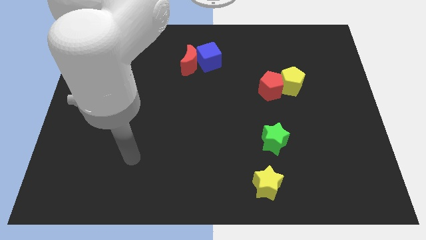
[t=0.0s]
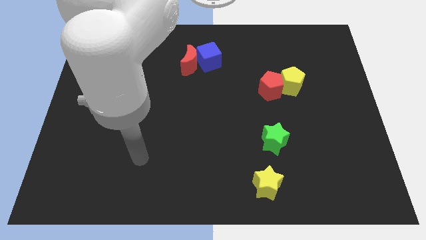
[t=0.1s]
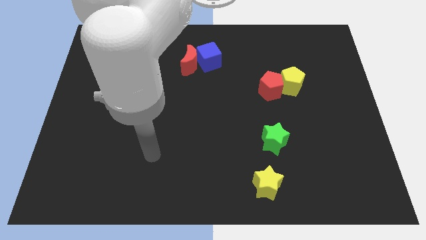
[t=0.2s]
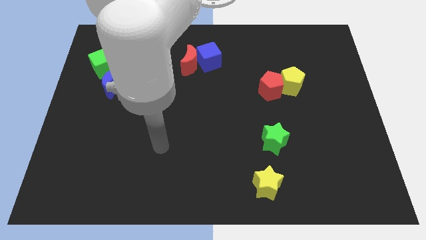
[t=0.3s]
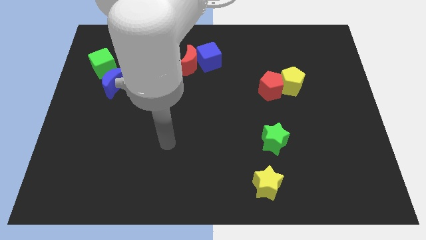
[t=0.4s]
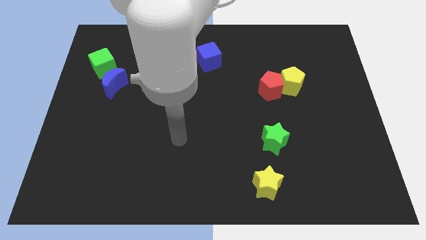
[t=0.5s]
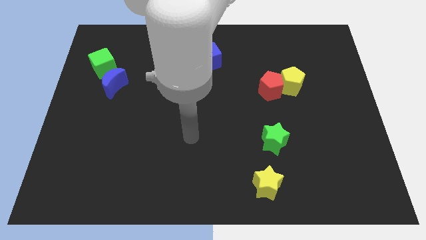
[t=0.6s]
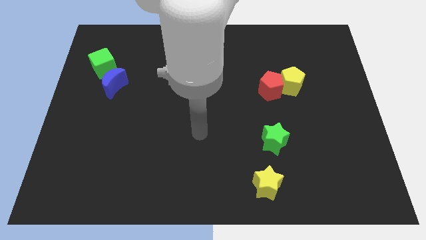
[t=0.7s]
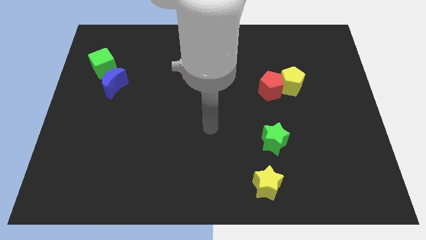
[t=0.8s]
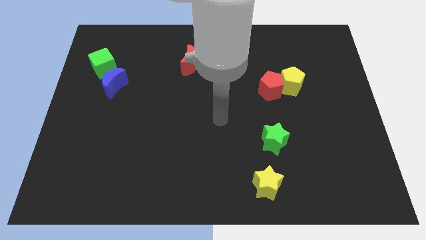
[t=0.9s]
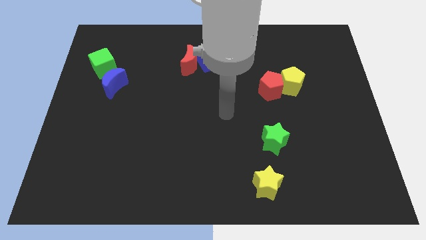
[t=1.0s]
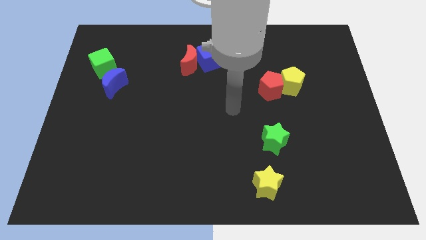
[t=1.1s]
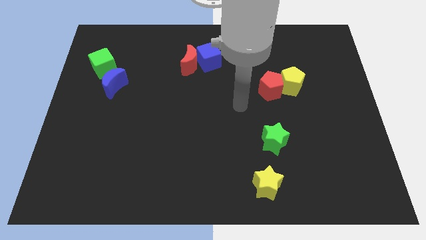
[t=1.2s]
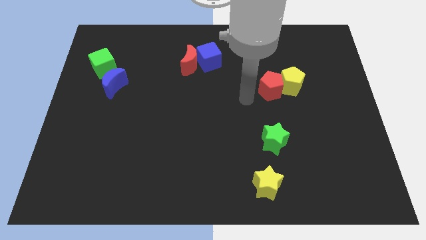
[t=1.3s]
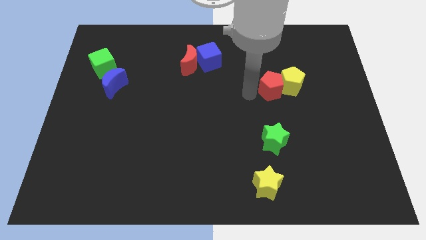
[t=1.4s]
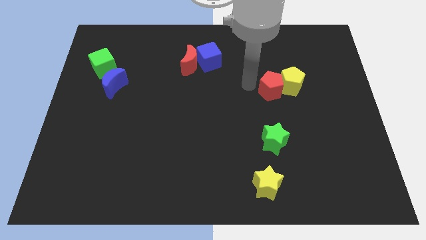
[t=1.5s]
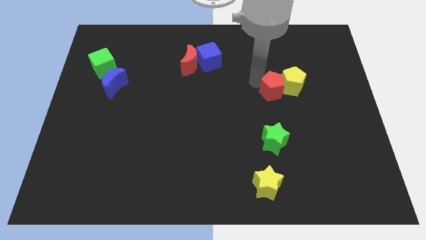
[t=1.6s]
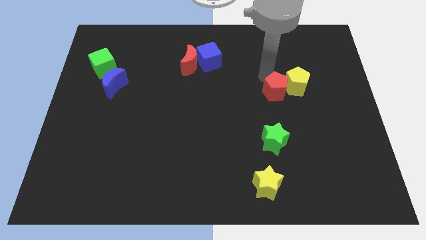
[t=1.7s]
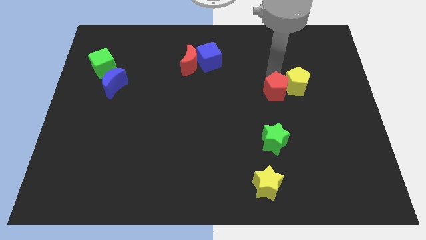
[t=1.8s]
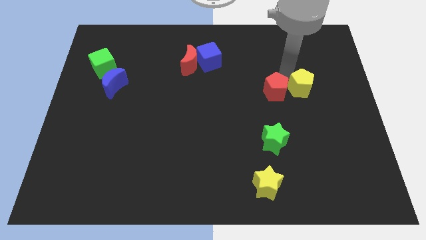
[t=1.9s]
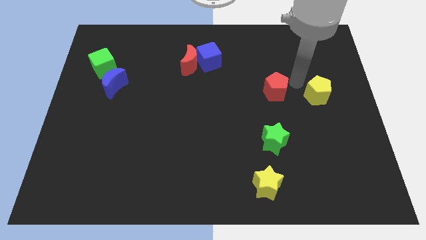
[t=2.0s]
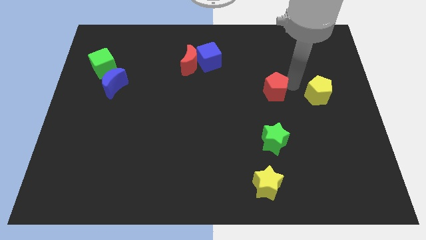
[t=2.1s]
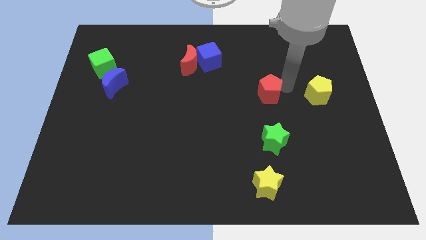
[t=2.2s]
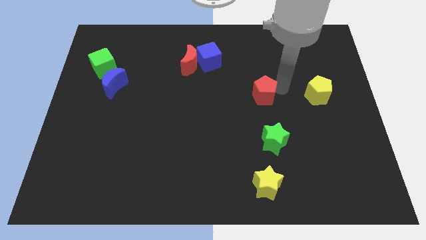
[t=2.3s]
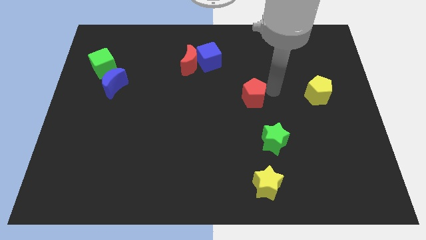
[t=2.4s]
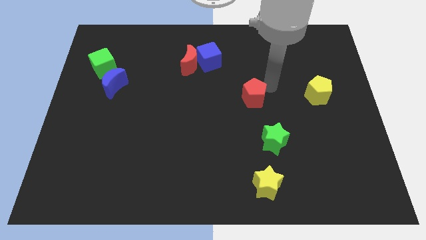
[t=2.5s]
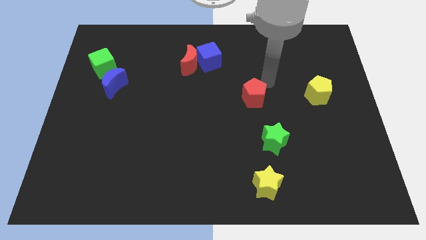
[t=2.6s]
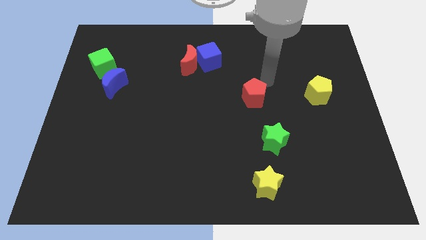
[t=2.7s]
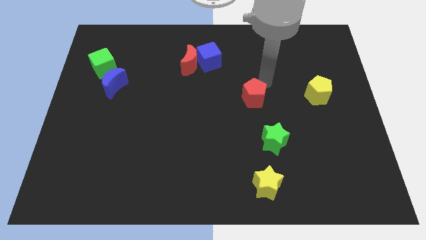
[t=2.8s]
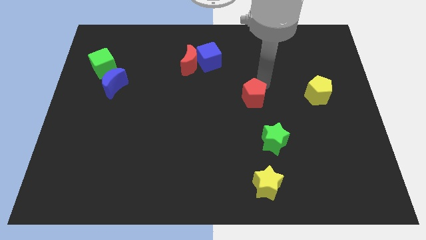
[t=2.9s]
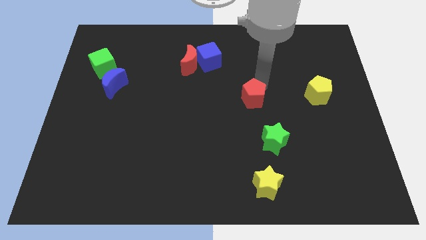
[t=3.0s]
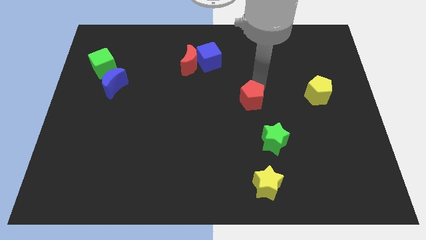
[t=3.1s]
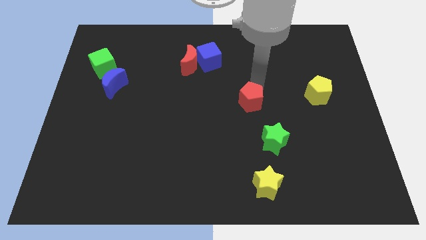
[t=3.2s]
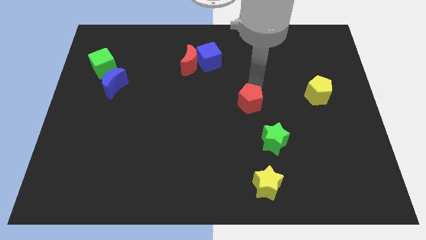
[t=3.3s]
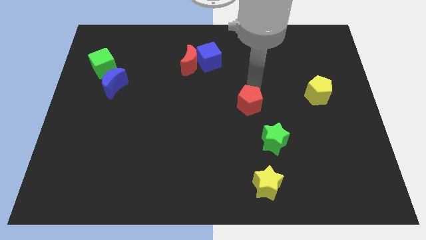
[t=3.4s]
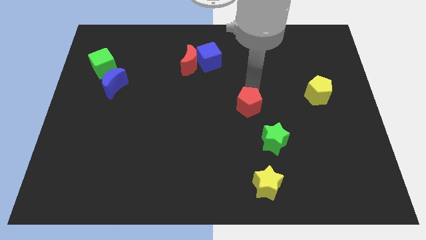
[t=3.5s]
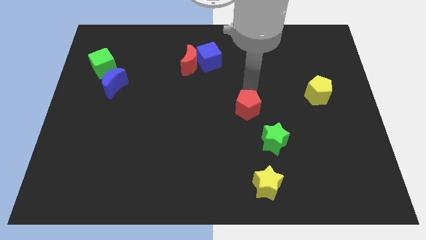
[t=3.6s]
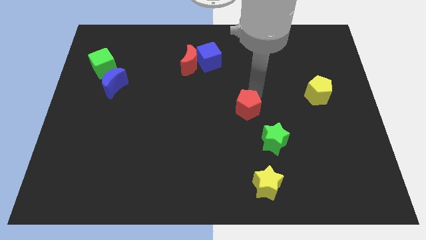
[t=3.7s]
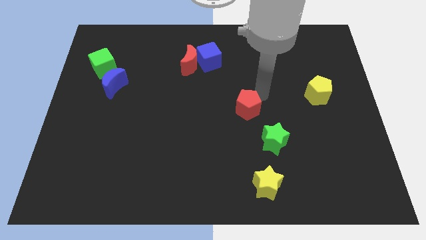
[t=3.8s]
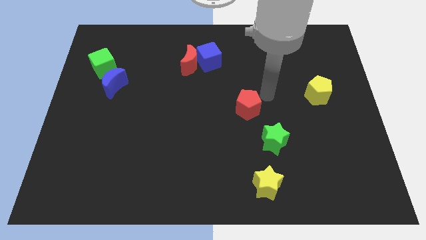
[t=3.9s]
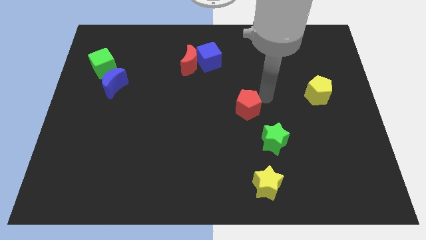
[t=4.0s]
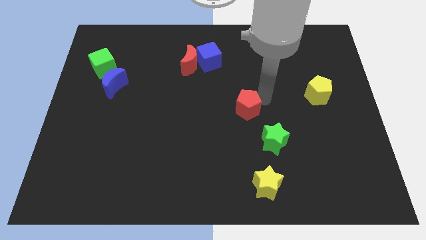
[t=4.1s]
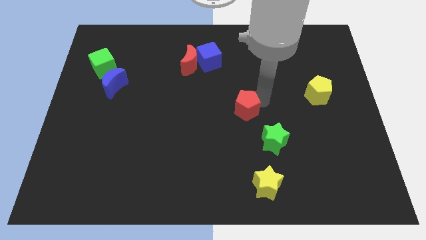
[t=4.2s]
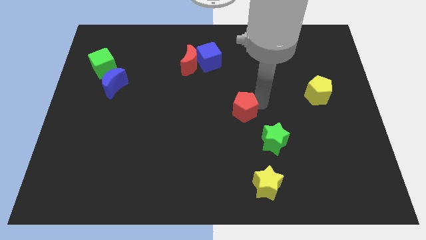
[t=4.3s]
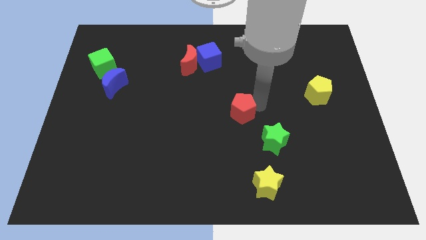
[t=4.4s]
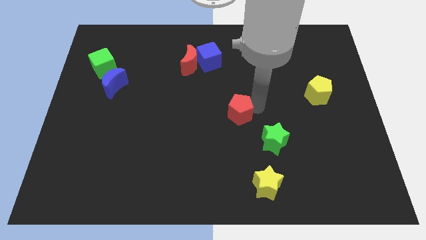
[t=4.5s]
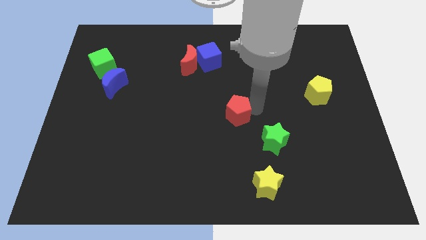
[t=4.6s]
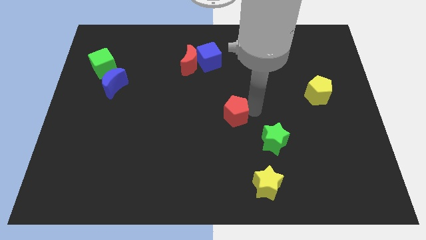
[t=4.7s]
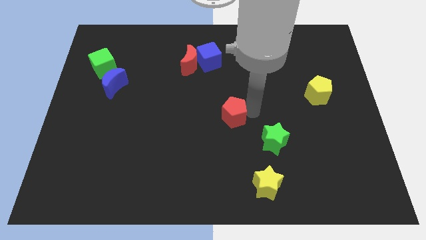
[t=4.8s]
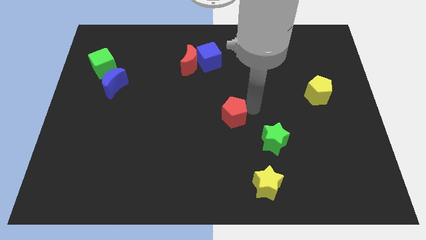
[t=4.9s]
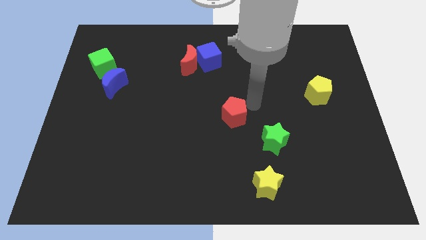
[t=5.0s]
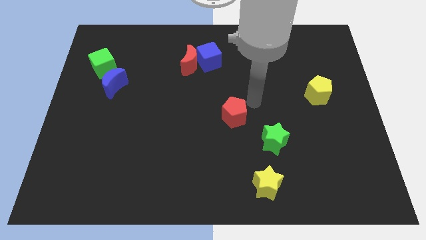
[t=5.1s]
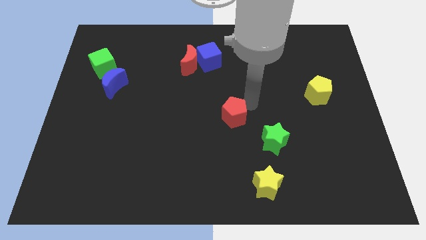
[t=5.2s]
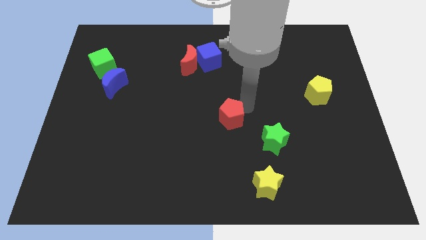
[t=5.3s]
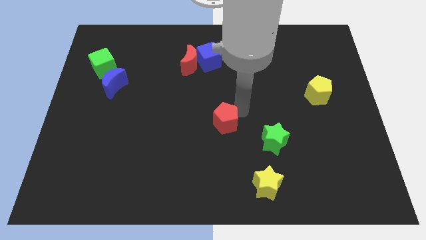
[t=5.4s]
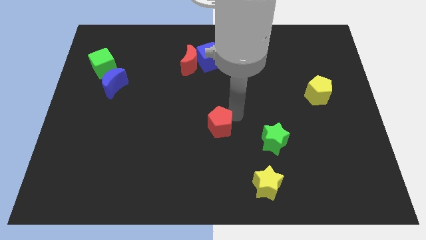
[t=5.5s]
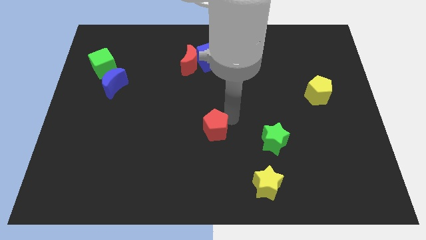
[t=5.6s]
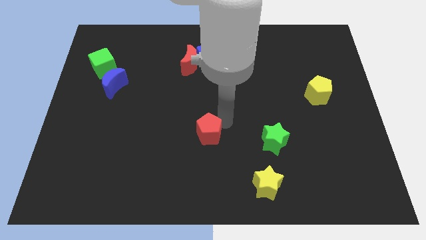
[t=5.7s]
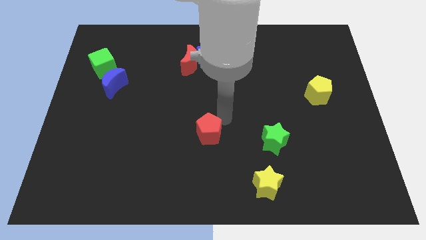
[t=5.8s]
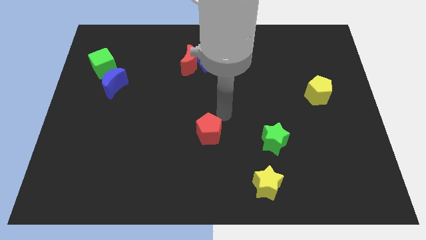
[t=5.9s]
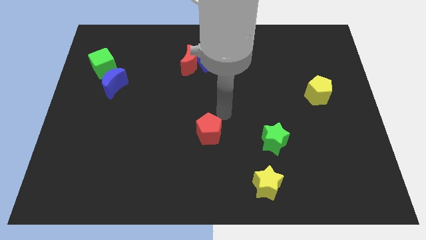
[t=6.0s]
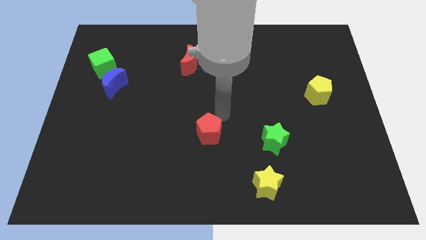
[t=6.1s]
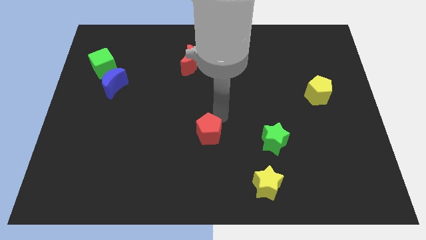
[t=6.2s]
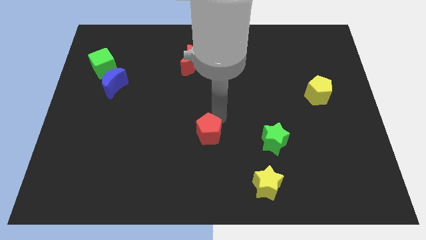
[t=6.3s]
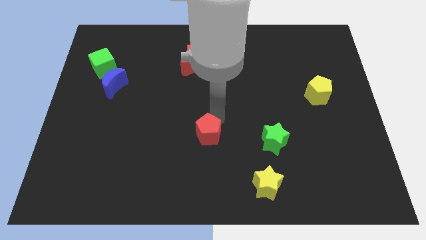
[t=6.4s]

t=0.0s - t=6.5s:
slide the red pentagon diagonally downwards and left

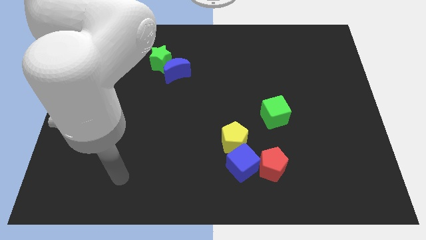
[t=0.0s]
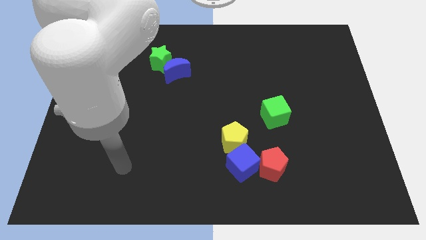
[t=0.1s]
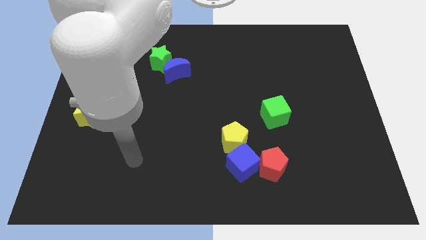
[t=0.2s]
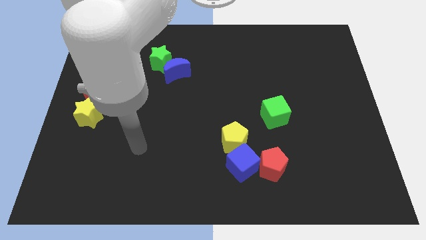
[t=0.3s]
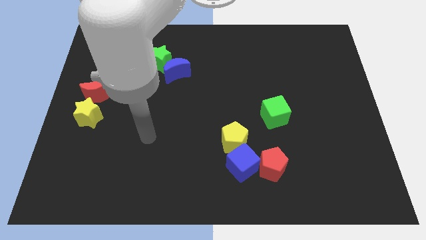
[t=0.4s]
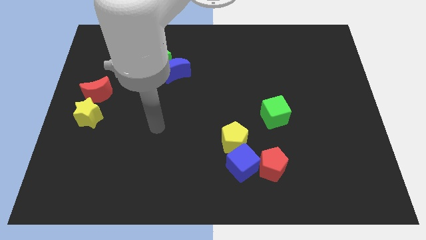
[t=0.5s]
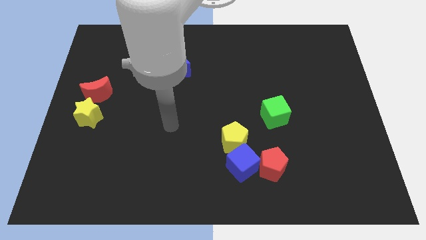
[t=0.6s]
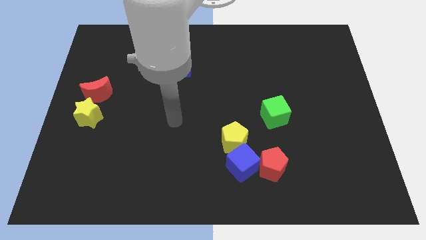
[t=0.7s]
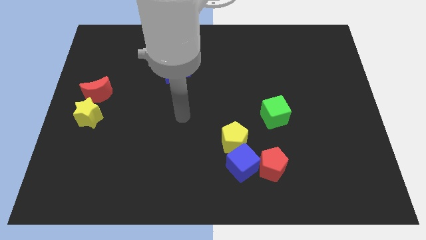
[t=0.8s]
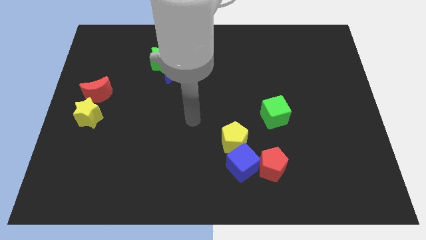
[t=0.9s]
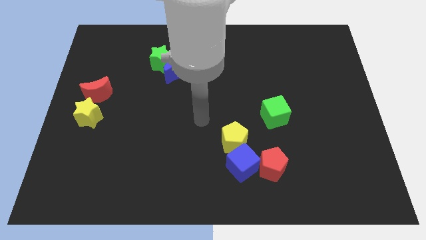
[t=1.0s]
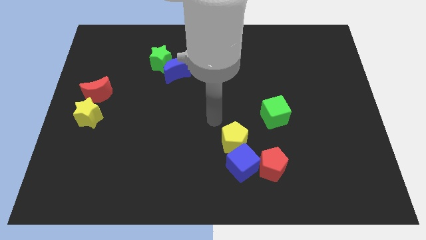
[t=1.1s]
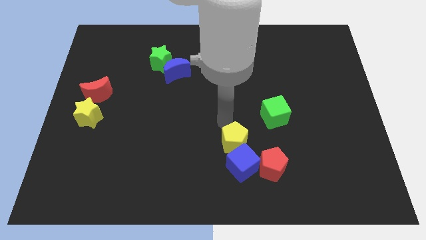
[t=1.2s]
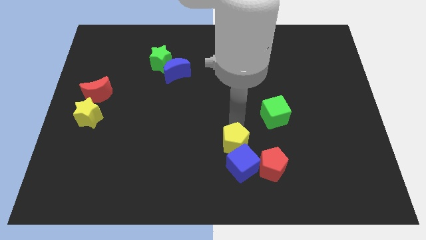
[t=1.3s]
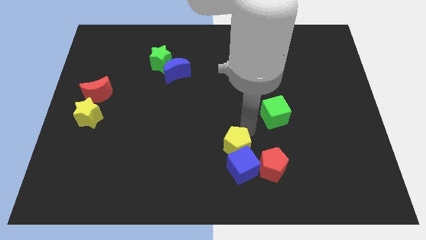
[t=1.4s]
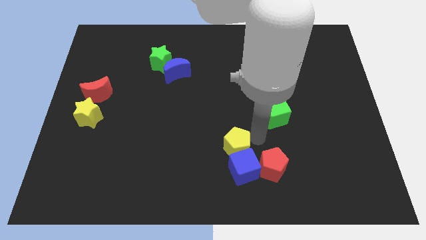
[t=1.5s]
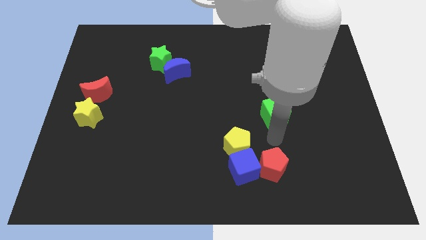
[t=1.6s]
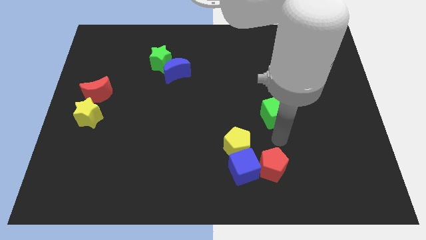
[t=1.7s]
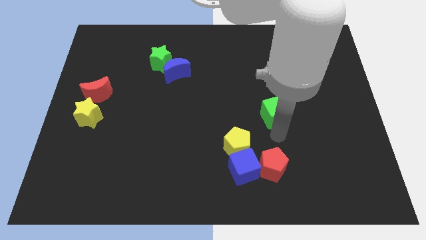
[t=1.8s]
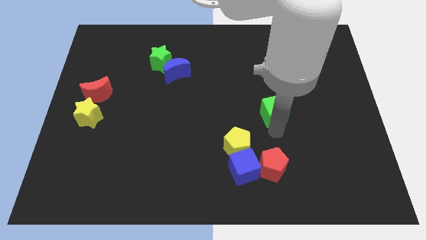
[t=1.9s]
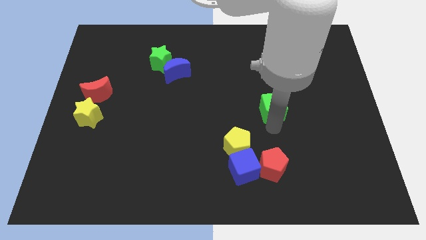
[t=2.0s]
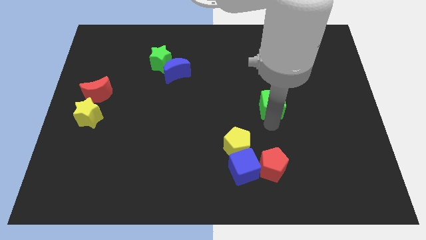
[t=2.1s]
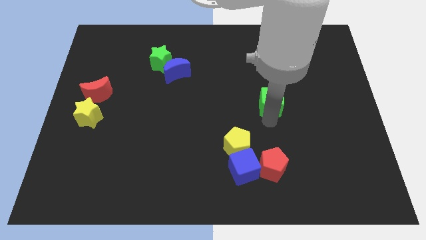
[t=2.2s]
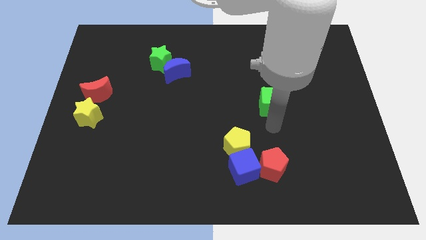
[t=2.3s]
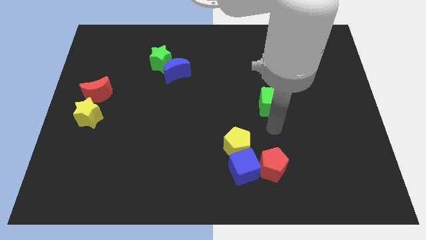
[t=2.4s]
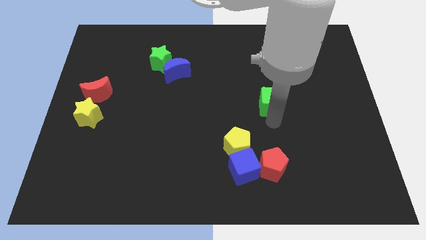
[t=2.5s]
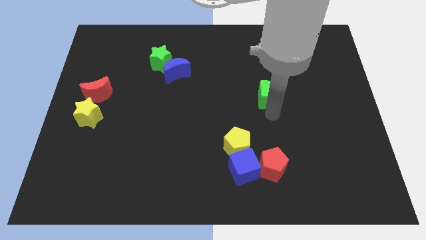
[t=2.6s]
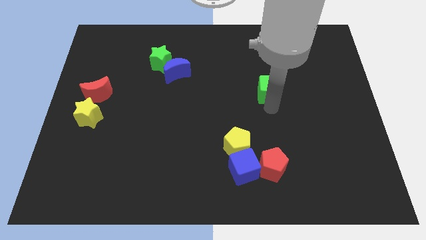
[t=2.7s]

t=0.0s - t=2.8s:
slide the green cube a bit upwards
